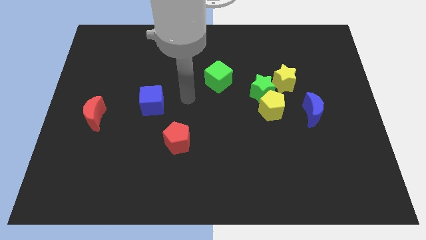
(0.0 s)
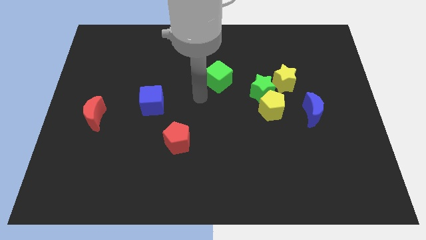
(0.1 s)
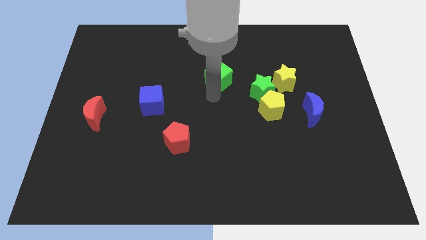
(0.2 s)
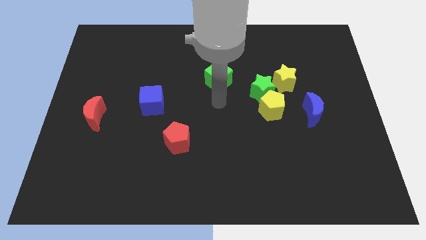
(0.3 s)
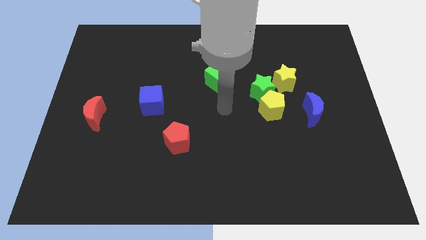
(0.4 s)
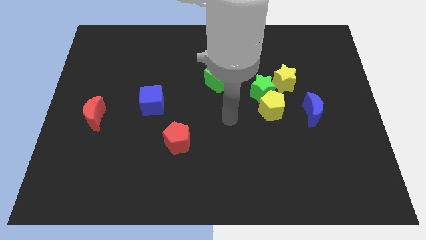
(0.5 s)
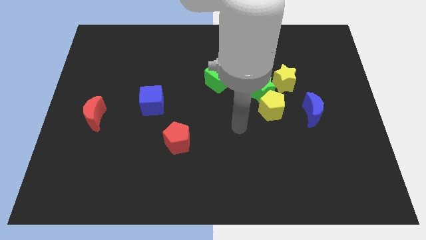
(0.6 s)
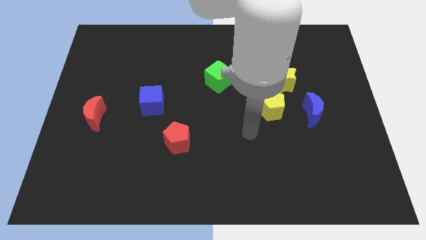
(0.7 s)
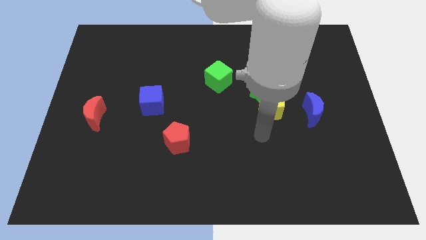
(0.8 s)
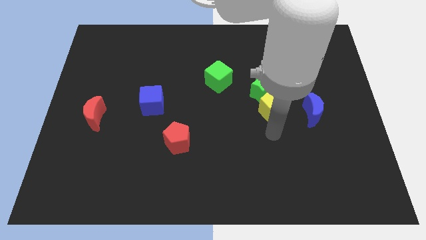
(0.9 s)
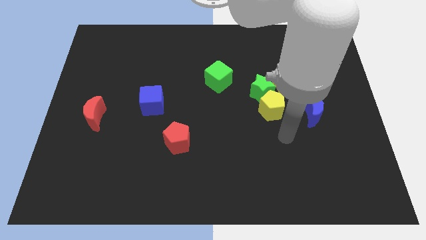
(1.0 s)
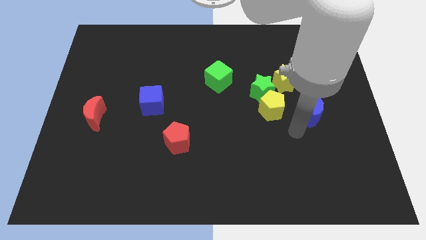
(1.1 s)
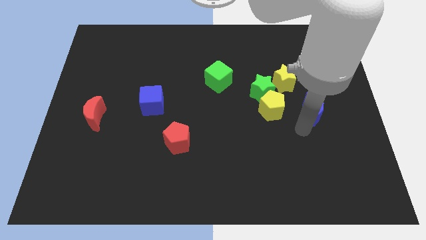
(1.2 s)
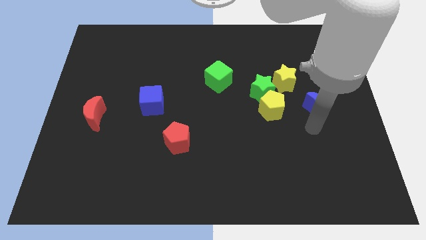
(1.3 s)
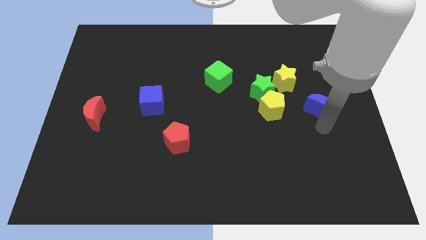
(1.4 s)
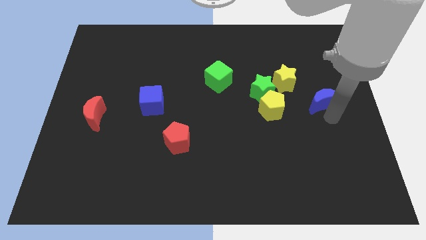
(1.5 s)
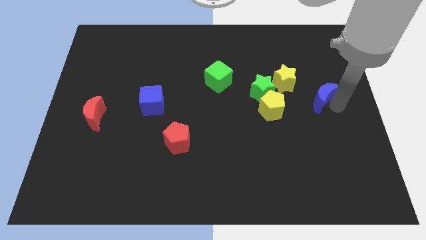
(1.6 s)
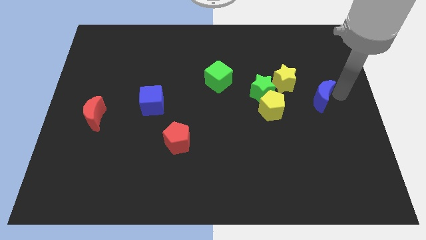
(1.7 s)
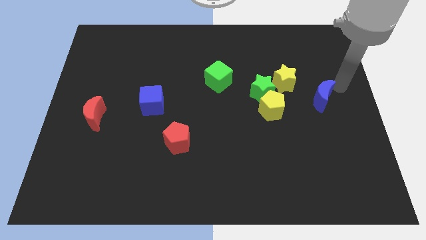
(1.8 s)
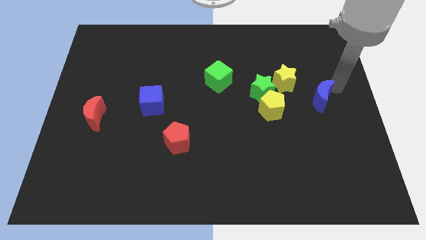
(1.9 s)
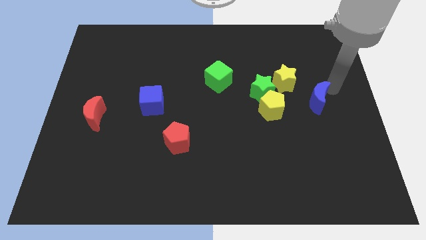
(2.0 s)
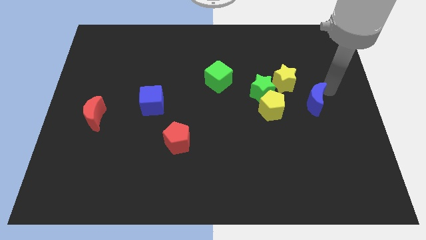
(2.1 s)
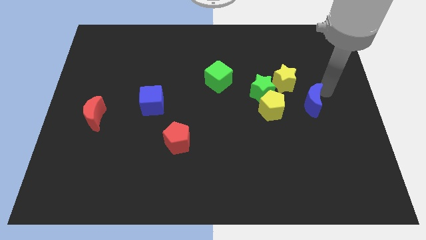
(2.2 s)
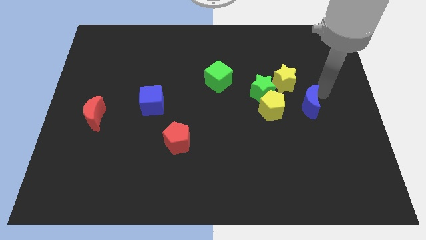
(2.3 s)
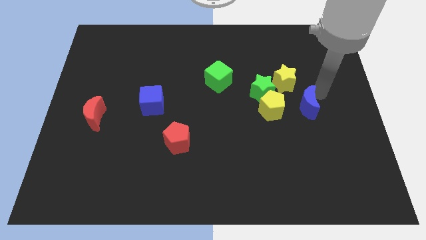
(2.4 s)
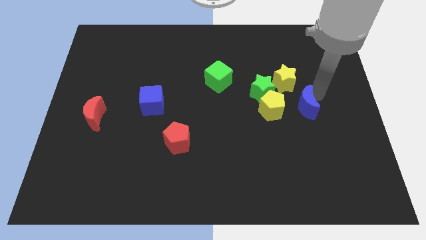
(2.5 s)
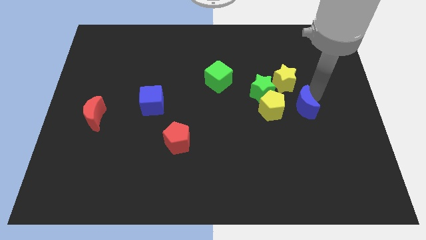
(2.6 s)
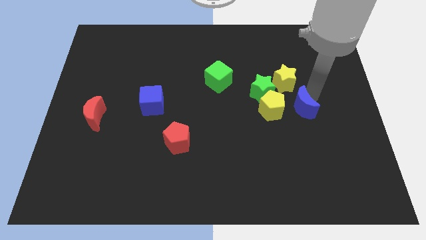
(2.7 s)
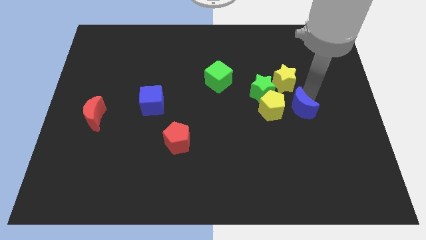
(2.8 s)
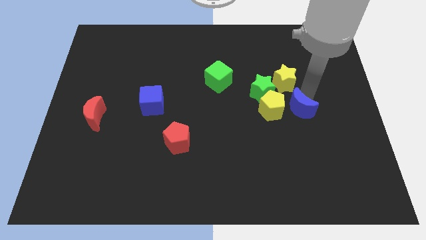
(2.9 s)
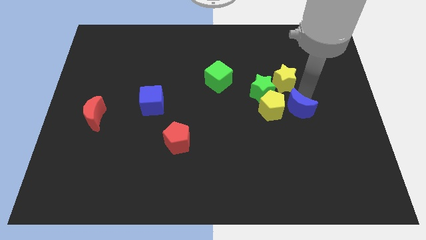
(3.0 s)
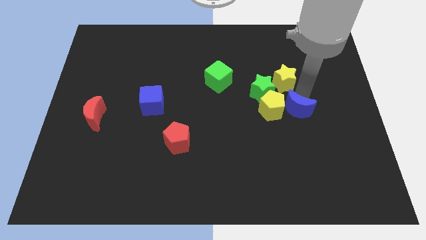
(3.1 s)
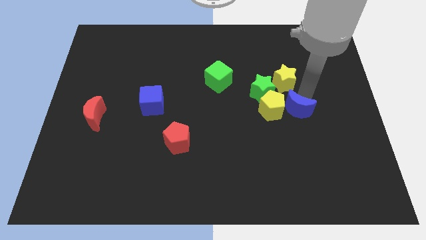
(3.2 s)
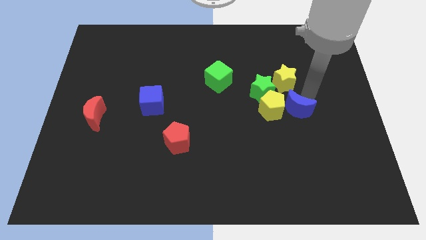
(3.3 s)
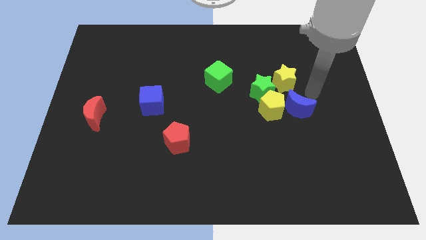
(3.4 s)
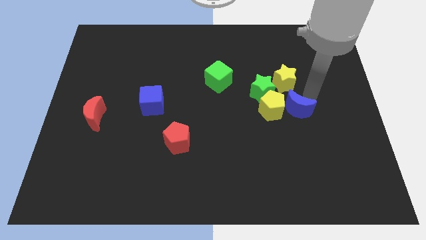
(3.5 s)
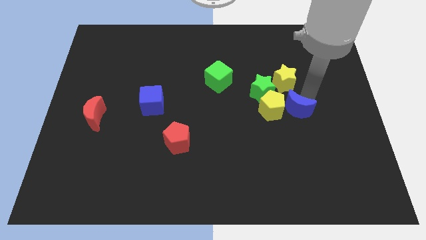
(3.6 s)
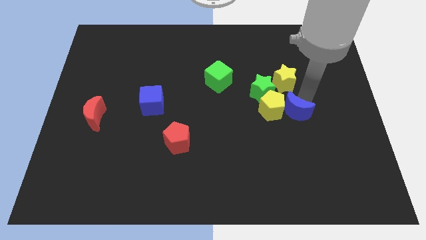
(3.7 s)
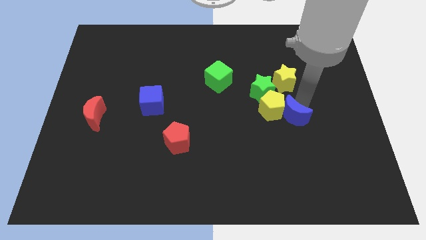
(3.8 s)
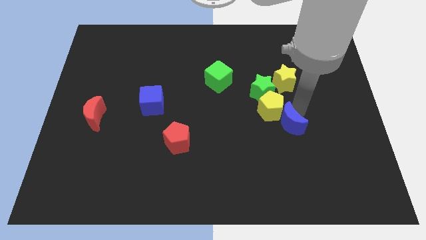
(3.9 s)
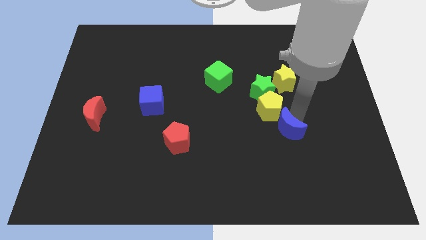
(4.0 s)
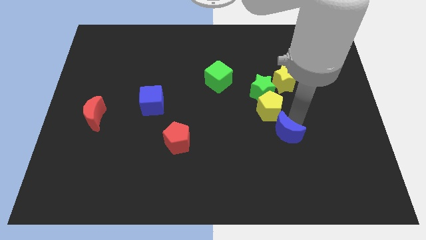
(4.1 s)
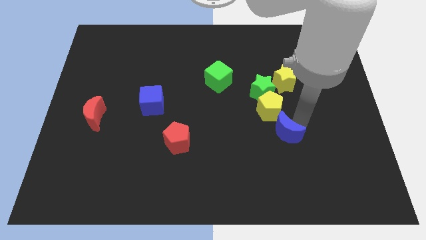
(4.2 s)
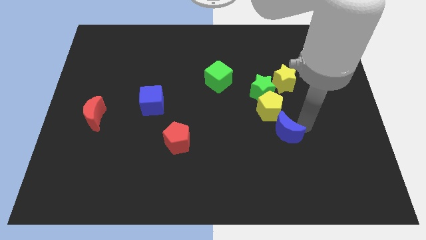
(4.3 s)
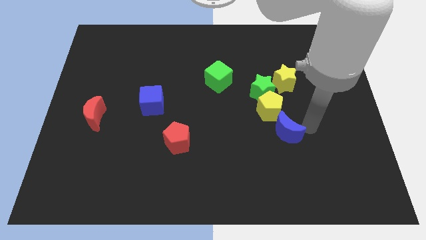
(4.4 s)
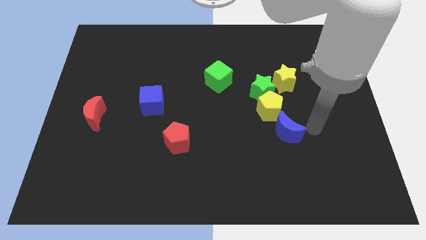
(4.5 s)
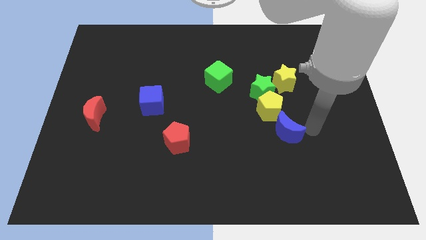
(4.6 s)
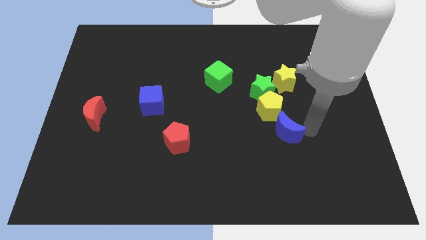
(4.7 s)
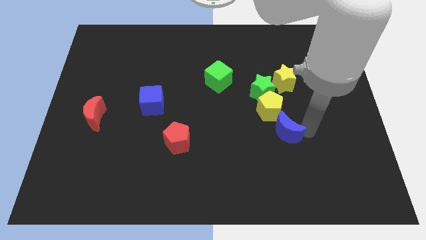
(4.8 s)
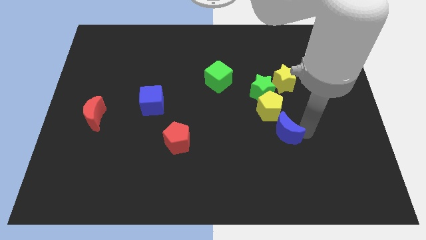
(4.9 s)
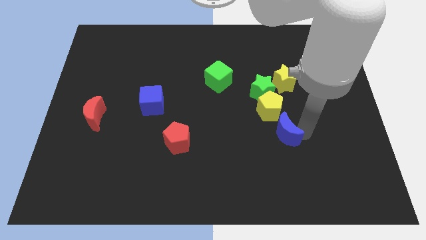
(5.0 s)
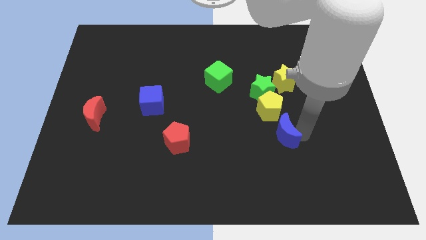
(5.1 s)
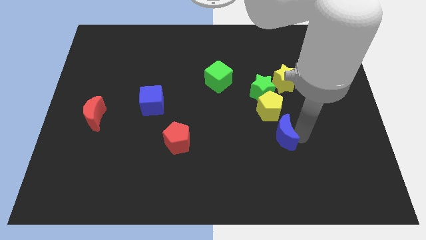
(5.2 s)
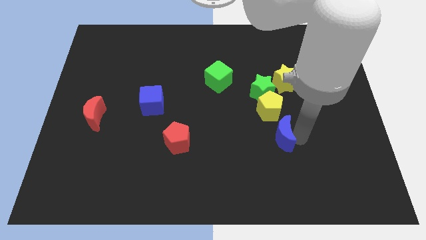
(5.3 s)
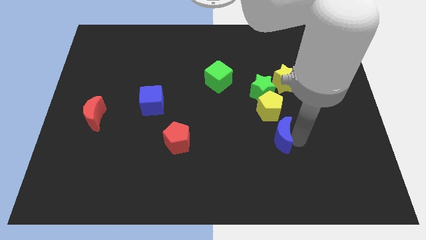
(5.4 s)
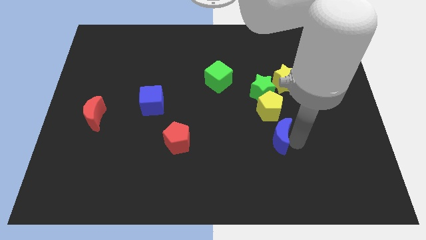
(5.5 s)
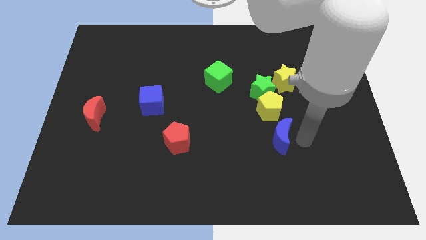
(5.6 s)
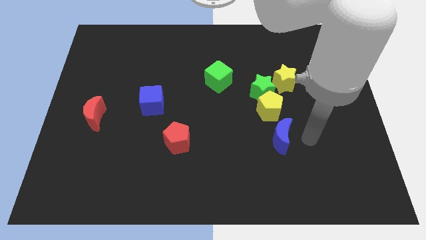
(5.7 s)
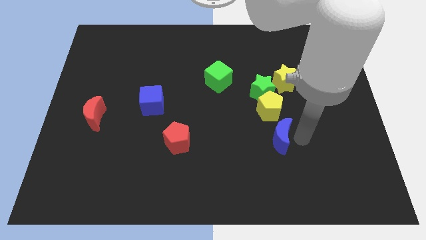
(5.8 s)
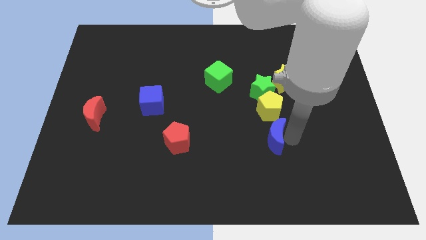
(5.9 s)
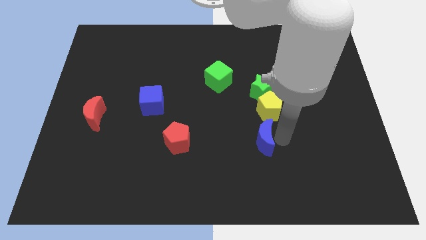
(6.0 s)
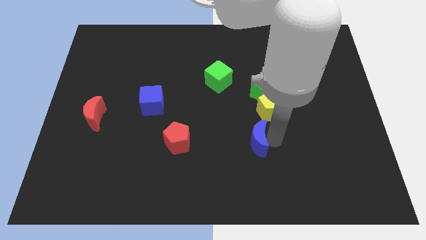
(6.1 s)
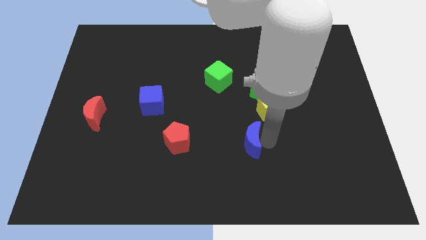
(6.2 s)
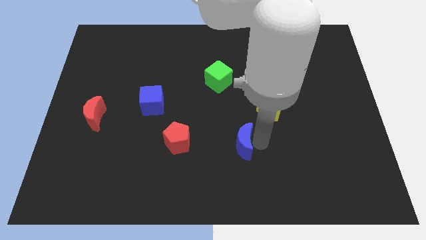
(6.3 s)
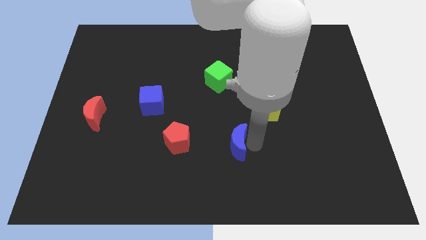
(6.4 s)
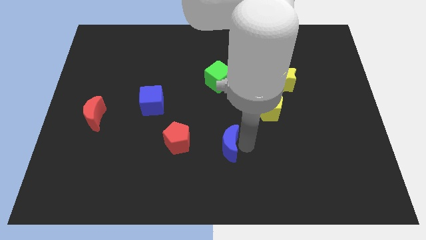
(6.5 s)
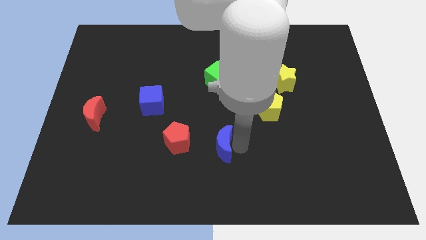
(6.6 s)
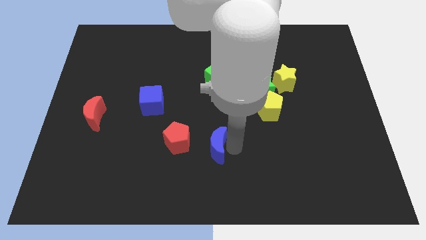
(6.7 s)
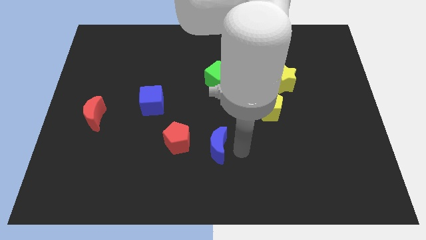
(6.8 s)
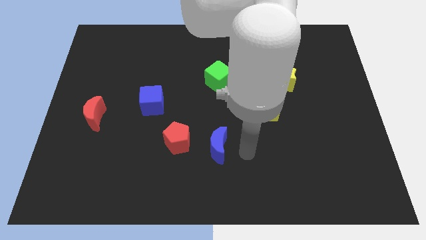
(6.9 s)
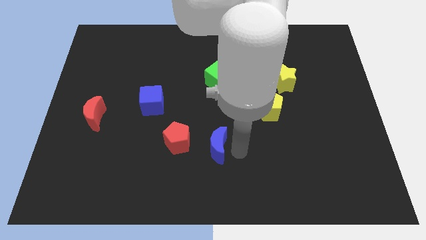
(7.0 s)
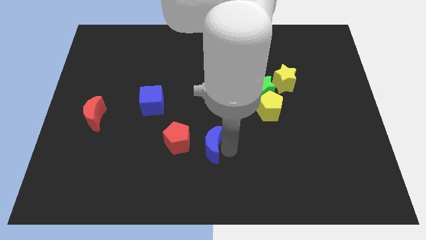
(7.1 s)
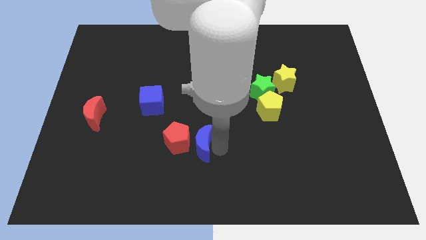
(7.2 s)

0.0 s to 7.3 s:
put the blue moon to the red pentagon
